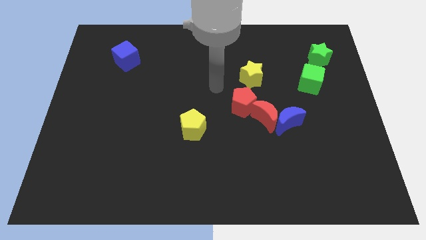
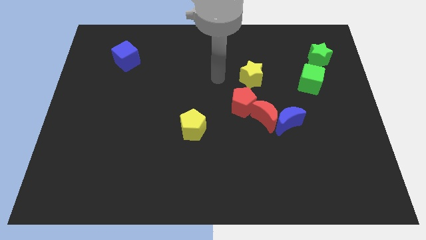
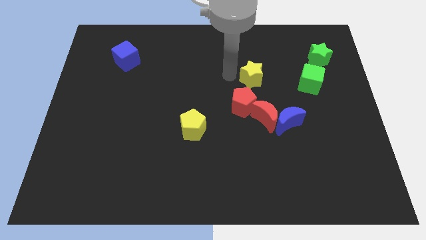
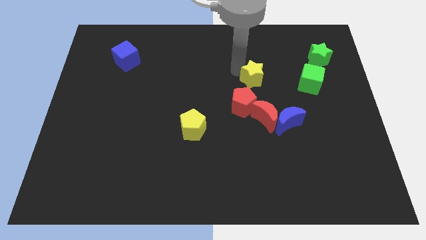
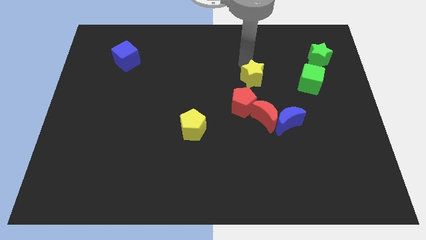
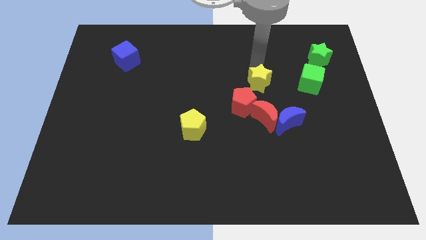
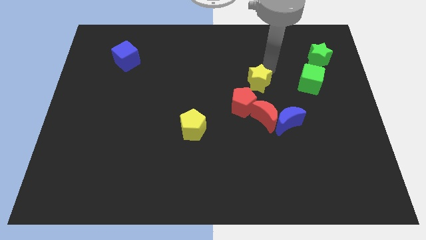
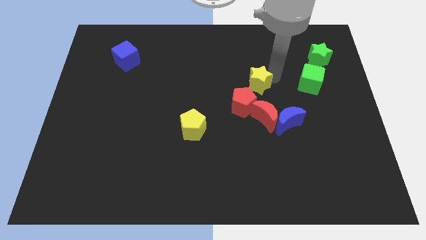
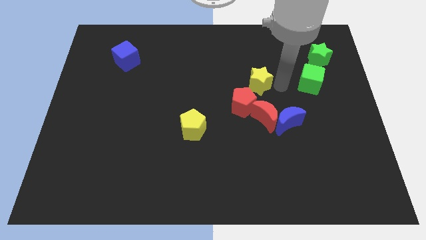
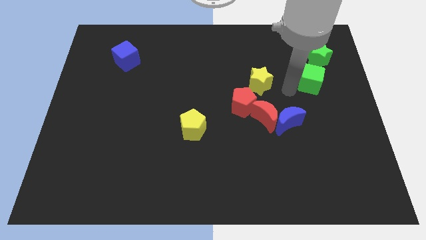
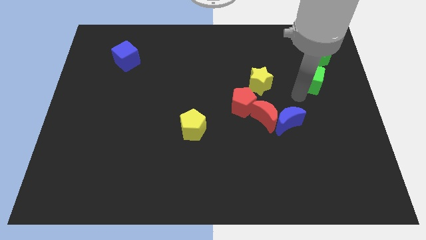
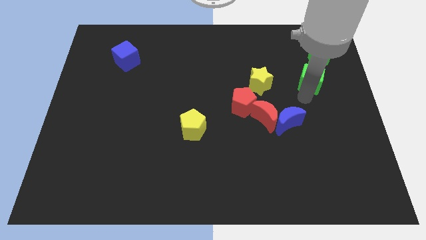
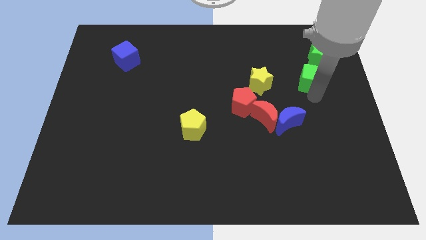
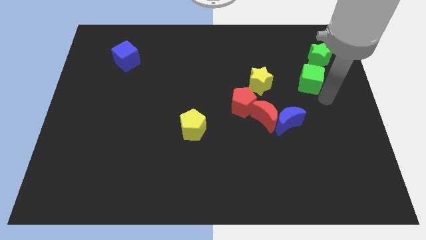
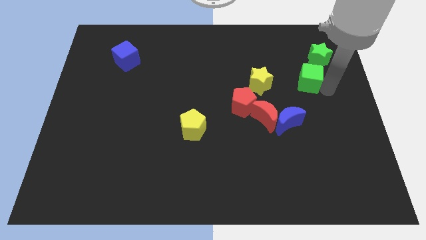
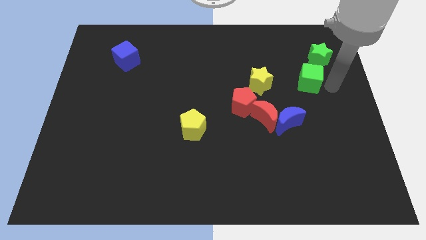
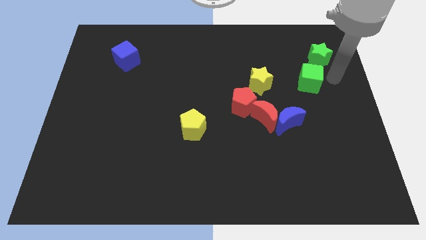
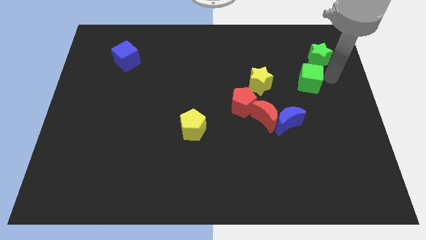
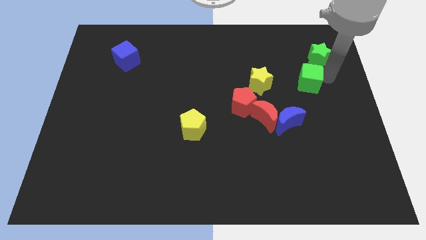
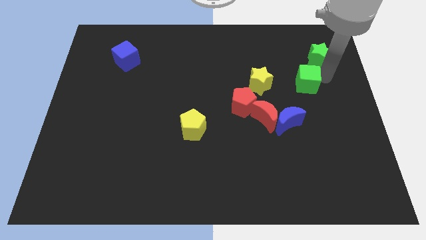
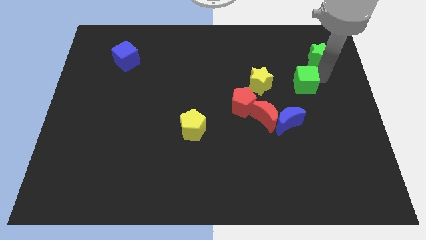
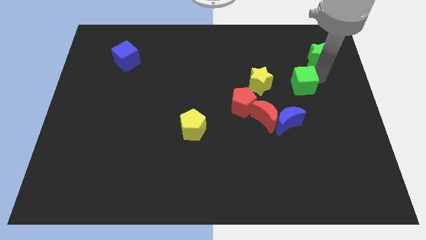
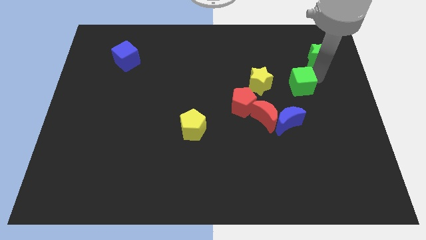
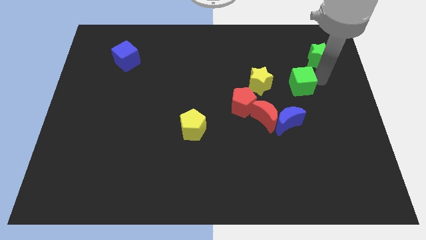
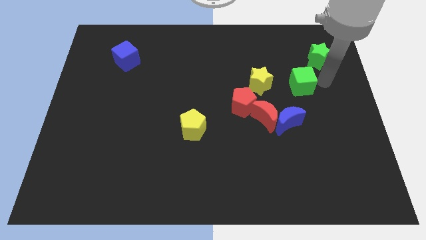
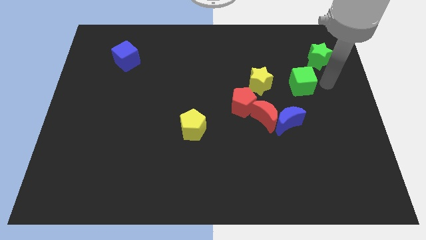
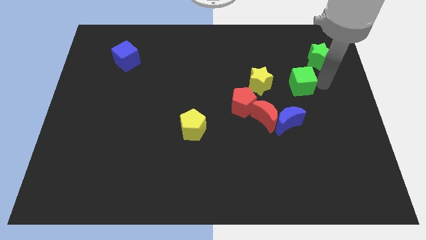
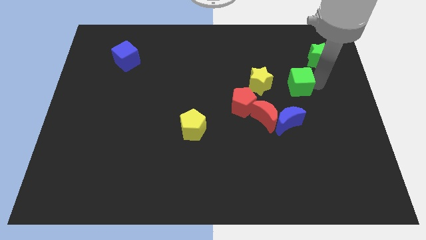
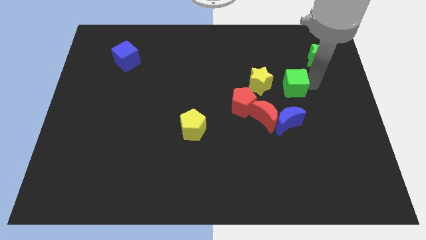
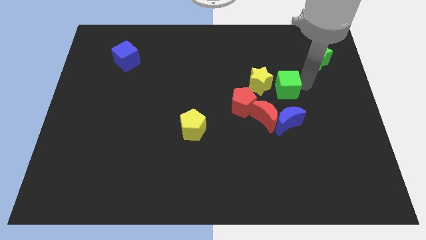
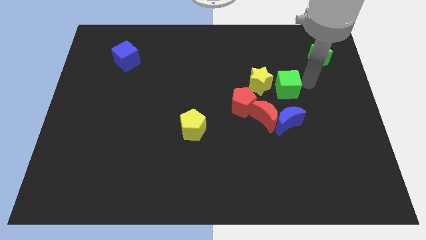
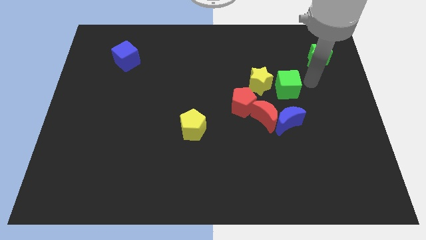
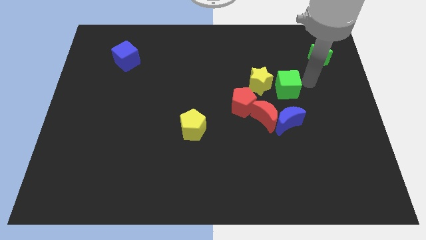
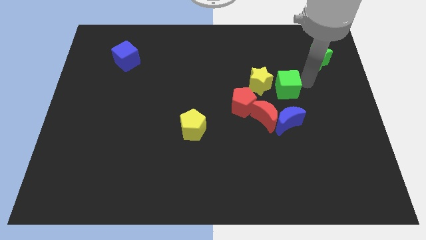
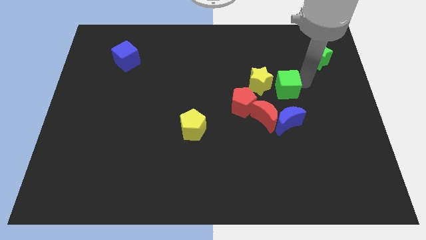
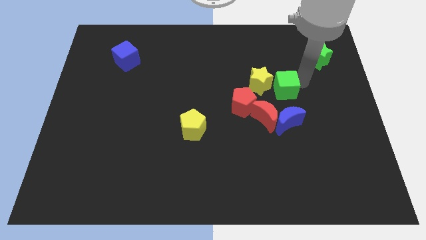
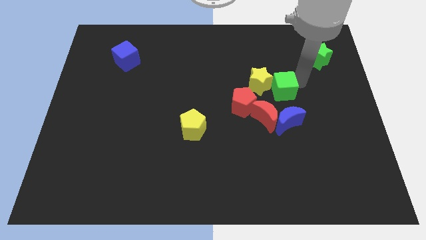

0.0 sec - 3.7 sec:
push the green cube a little bit left

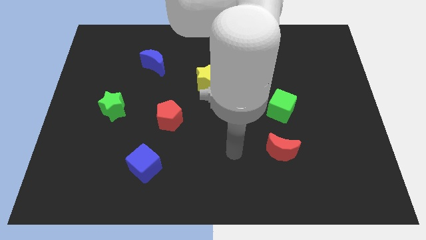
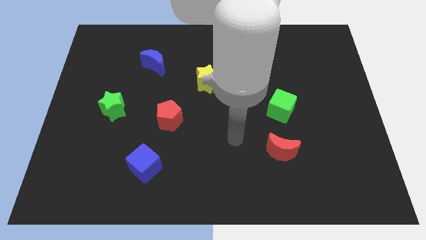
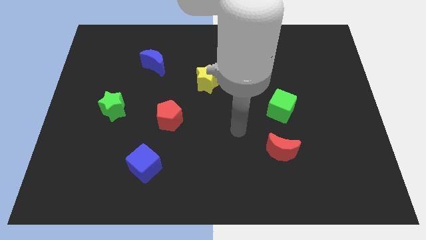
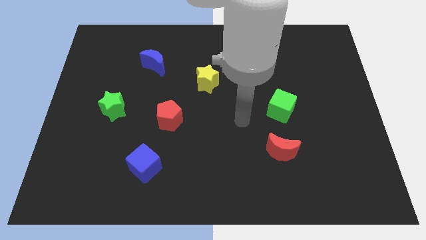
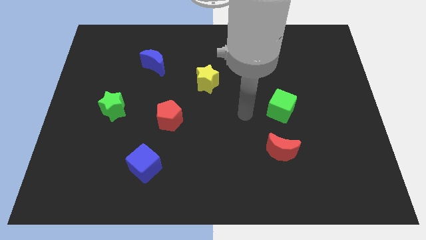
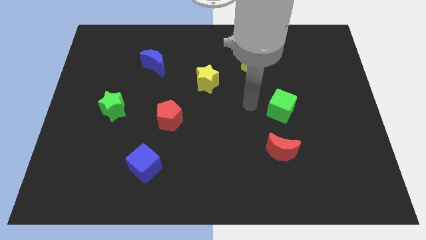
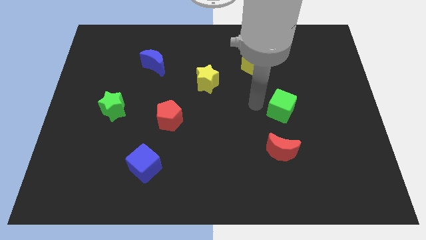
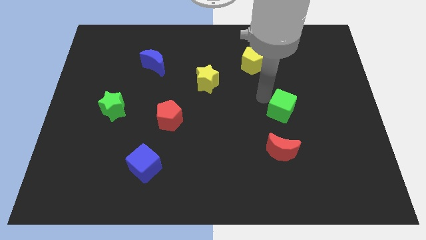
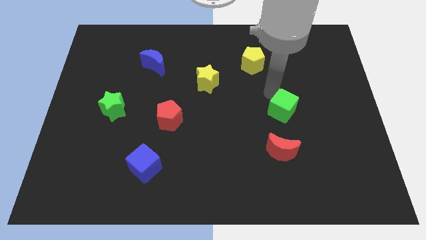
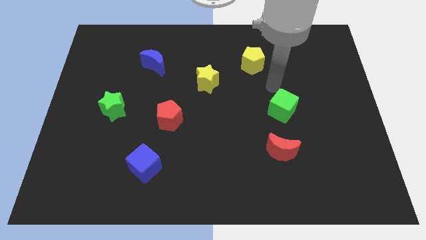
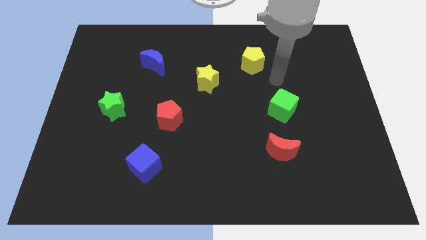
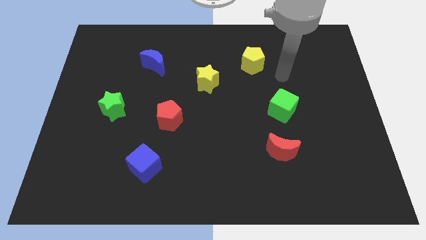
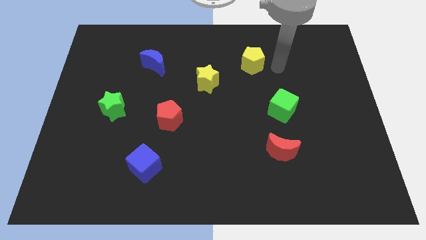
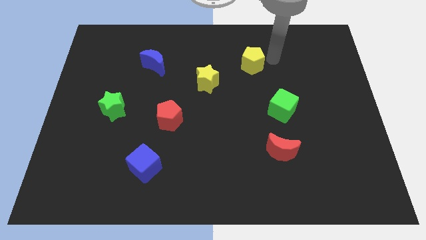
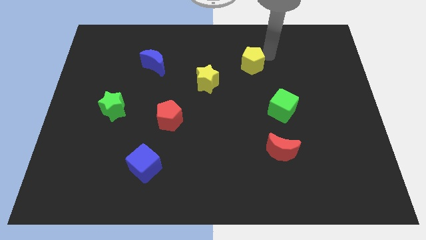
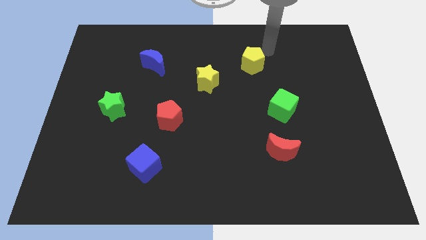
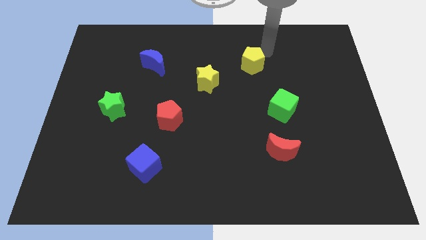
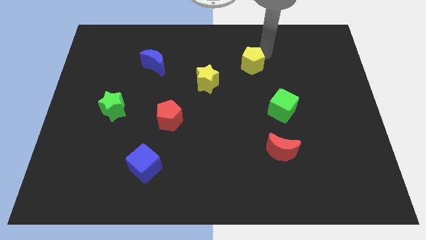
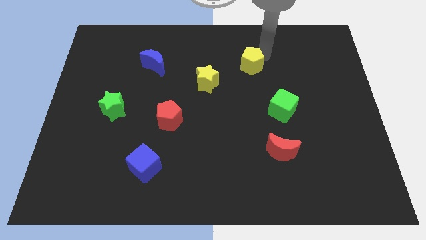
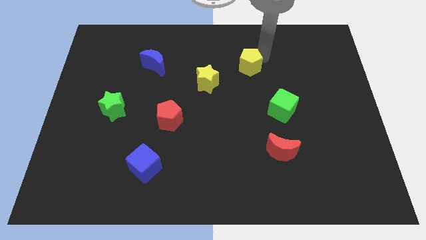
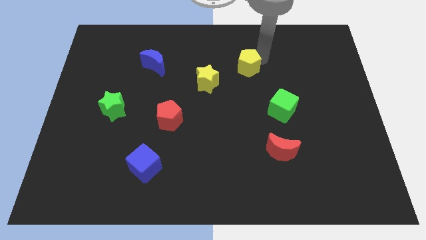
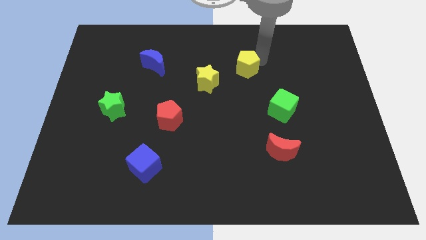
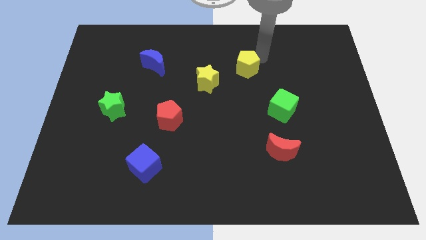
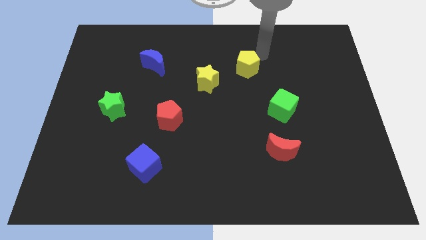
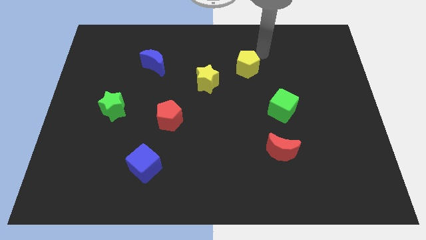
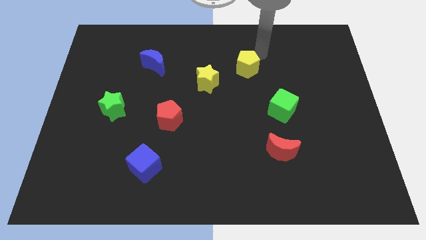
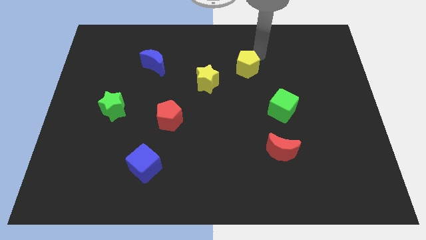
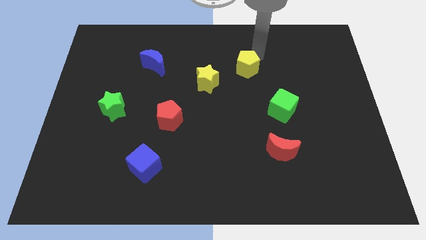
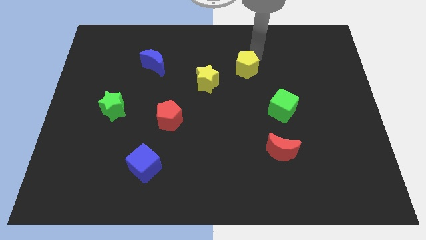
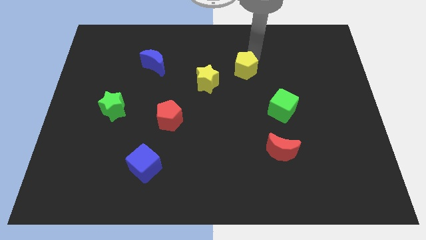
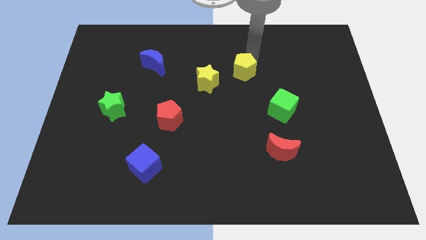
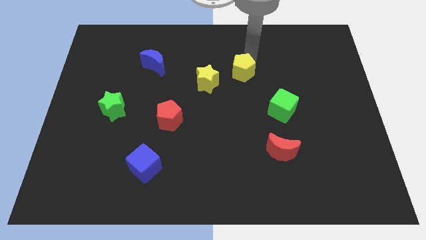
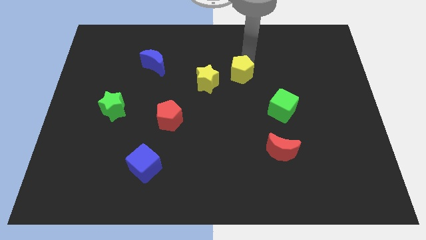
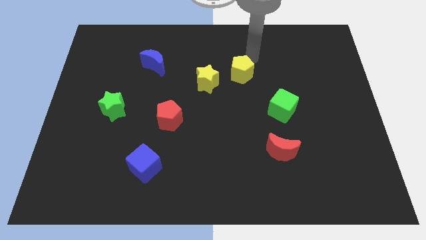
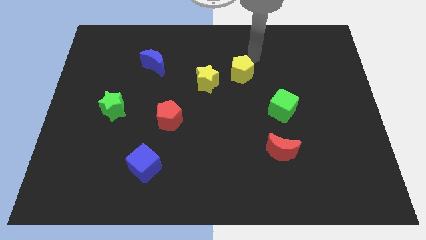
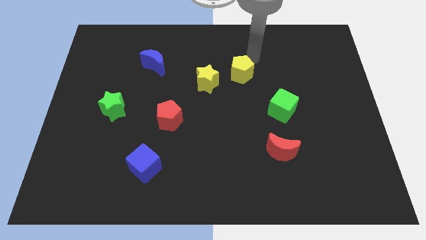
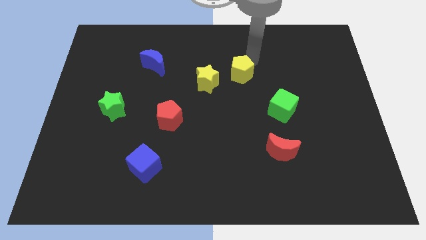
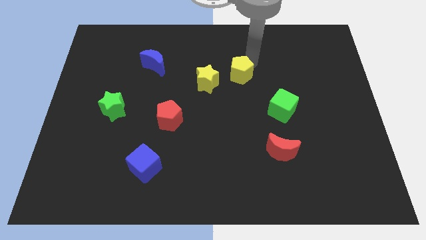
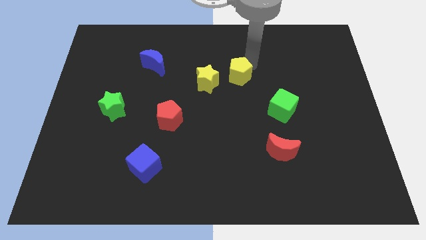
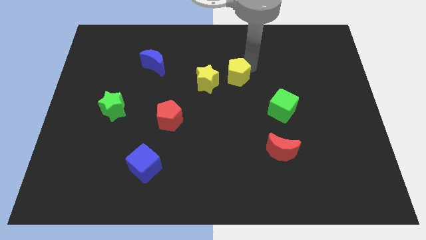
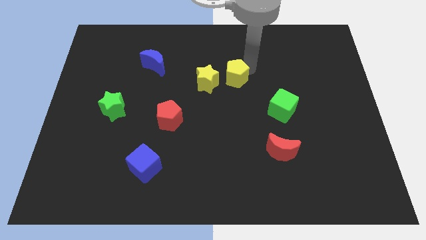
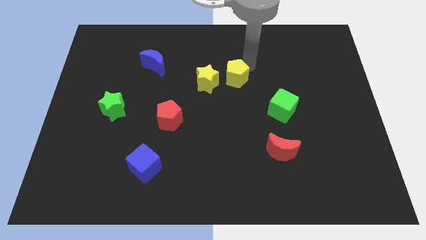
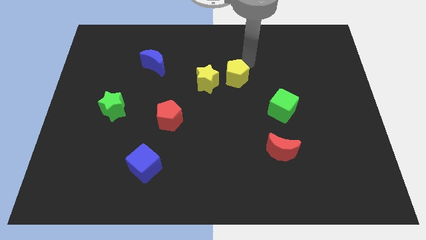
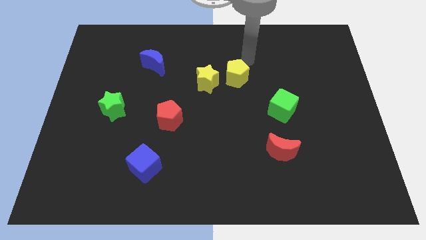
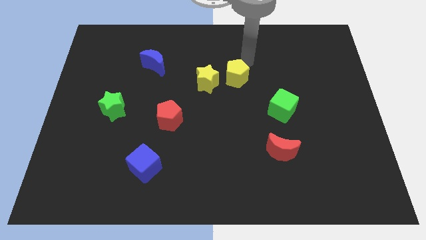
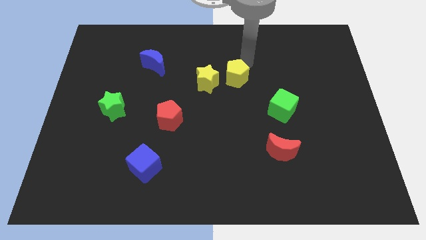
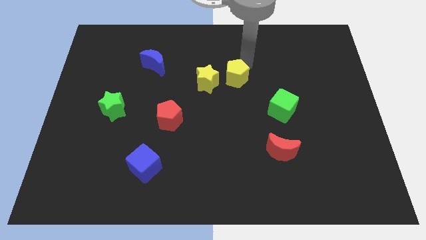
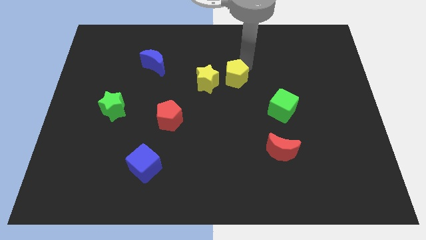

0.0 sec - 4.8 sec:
slightly push the yellow pentagon diagonally downwards and left
